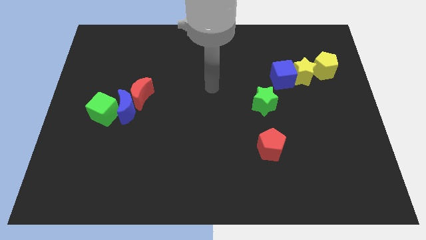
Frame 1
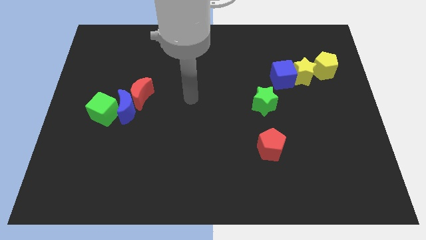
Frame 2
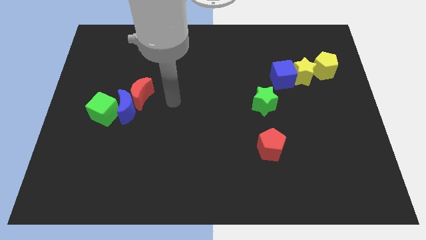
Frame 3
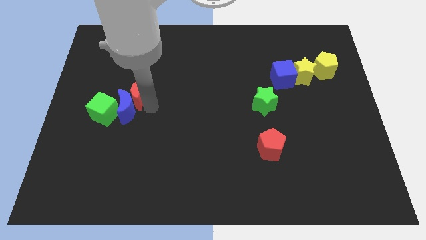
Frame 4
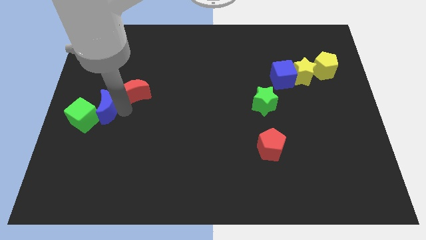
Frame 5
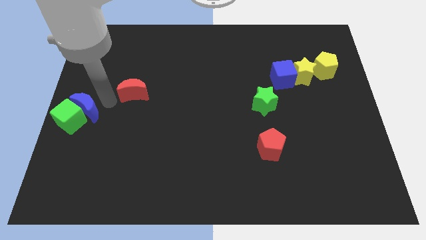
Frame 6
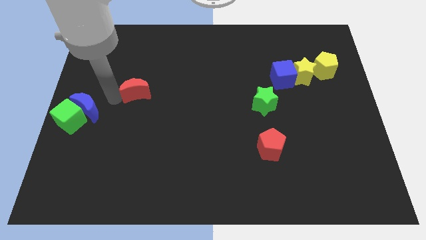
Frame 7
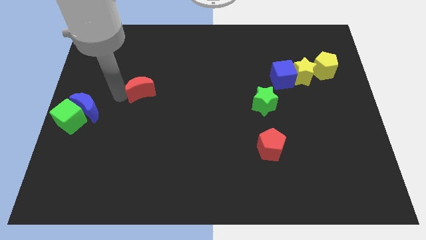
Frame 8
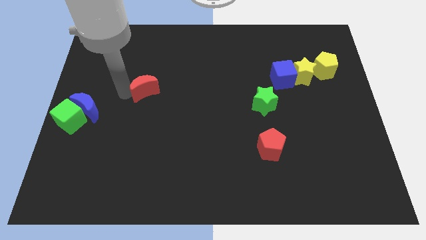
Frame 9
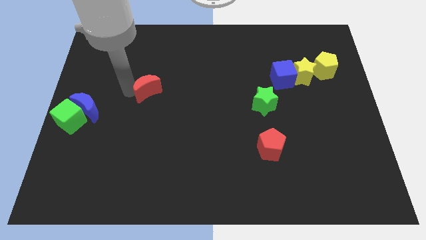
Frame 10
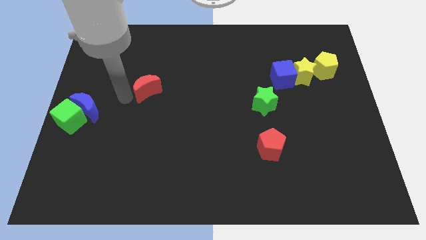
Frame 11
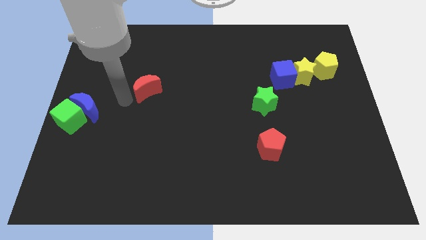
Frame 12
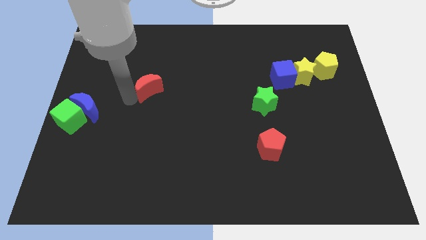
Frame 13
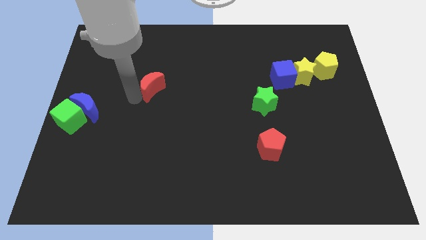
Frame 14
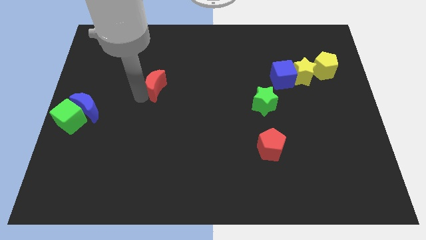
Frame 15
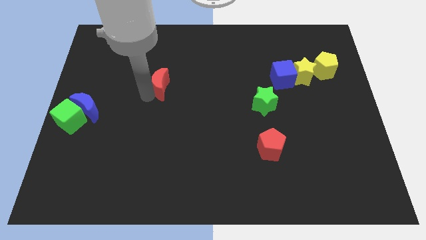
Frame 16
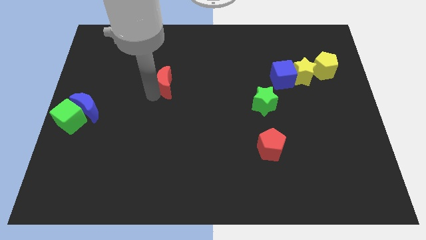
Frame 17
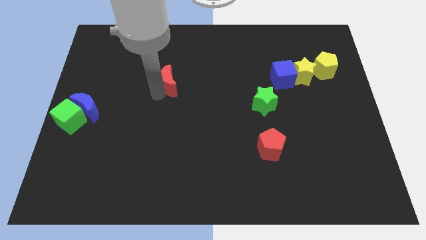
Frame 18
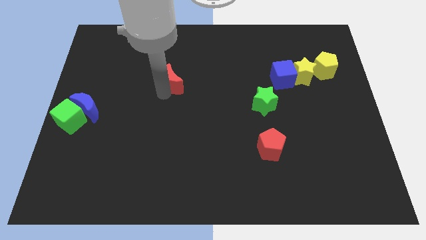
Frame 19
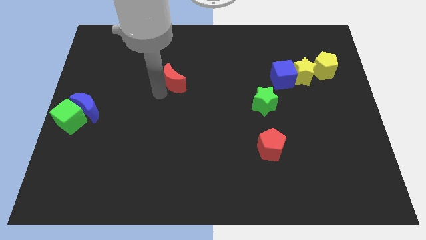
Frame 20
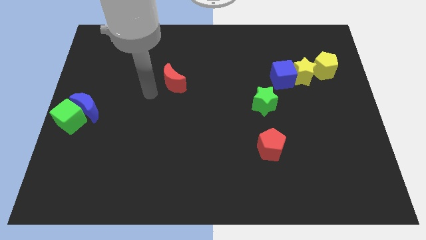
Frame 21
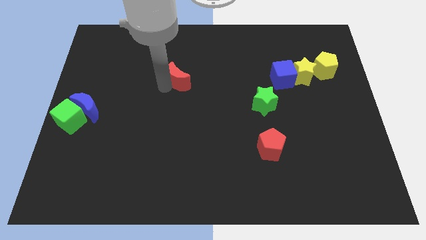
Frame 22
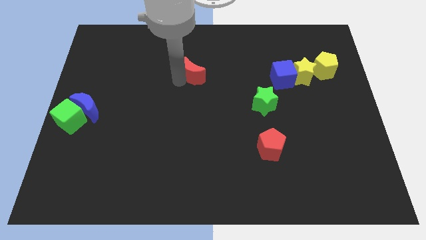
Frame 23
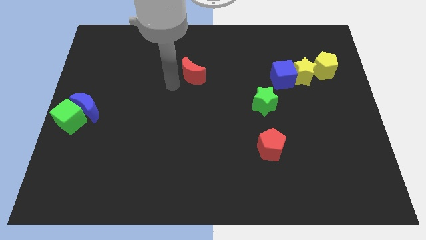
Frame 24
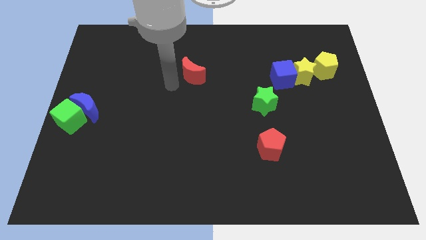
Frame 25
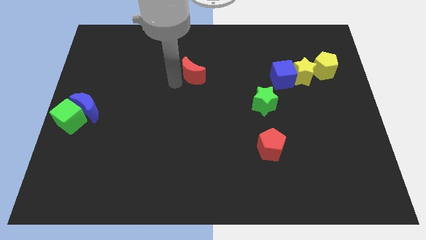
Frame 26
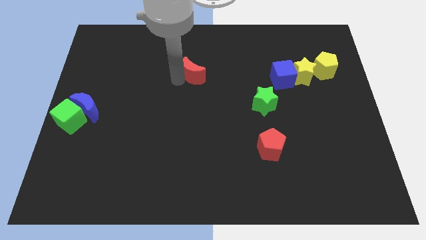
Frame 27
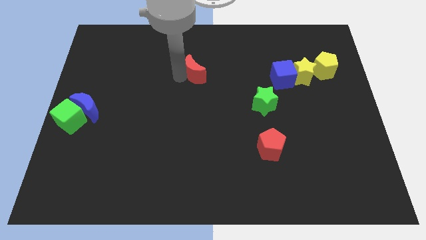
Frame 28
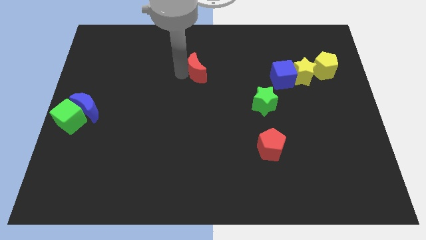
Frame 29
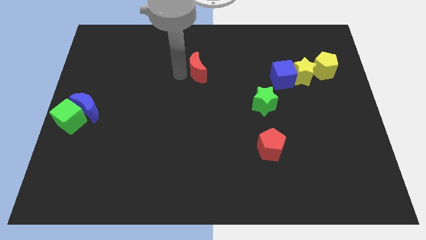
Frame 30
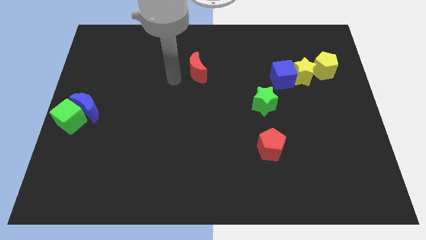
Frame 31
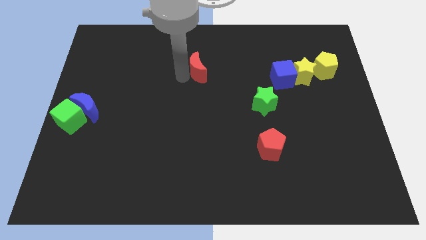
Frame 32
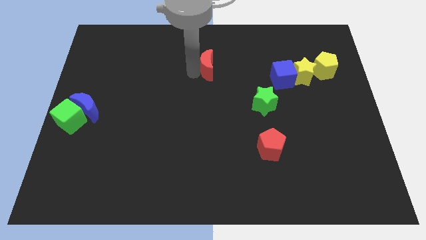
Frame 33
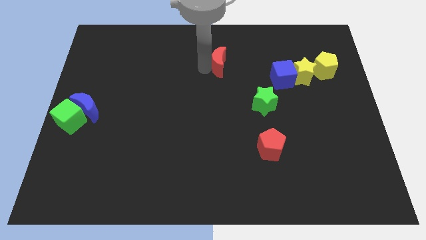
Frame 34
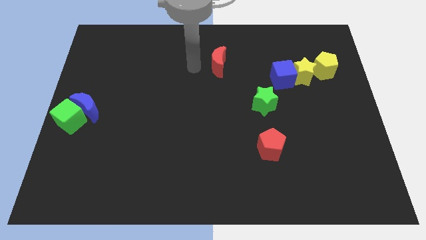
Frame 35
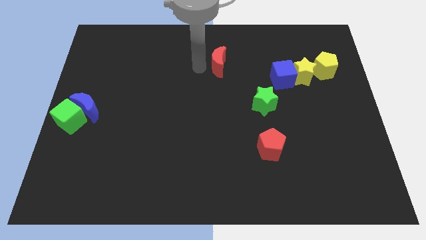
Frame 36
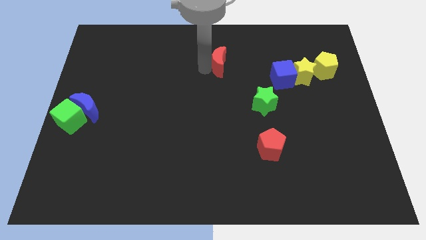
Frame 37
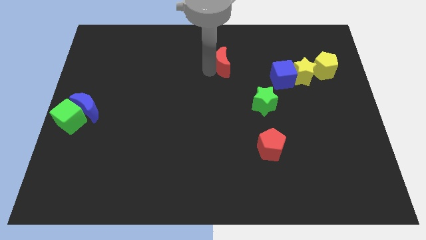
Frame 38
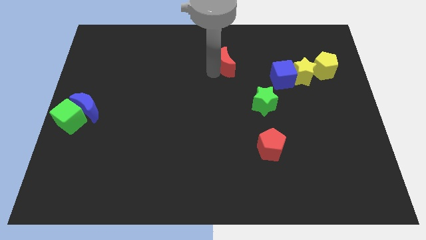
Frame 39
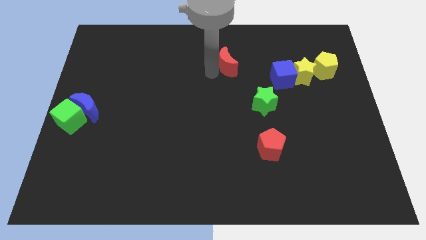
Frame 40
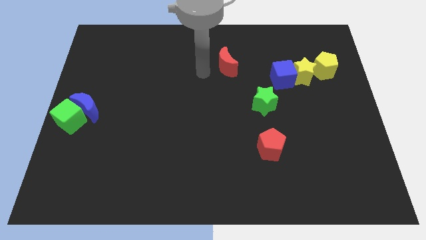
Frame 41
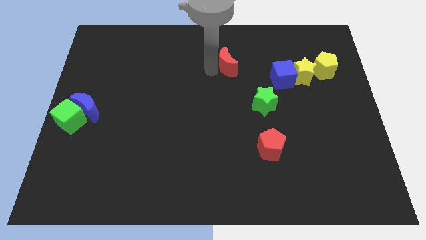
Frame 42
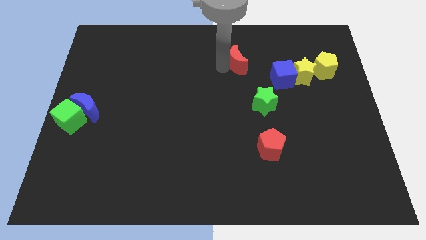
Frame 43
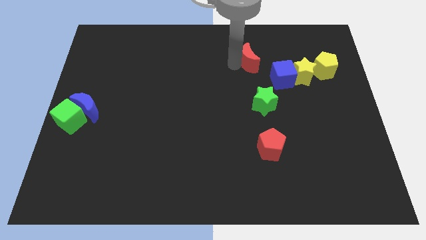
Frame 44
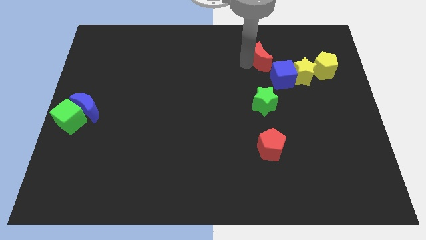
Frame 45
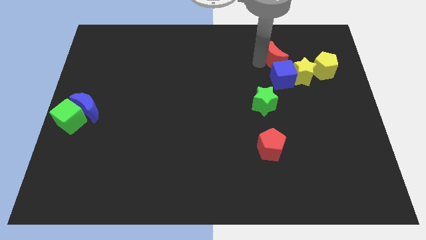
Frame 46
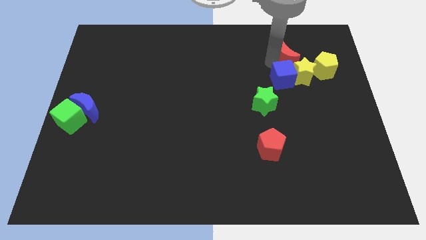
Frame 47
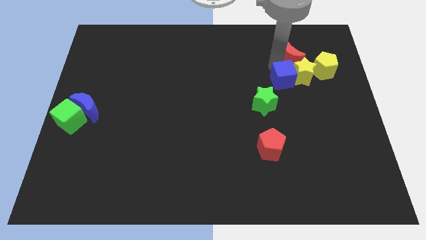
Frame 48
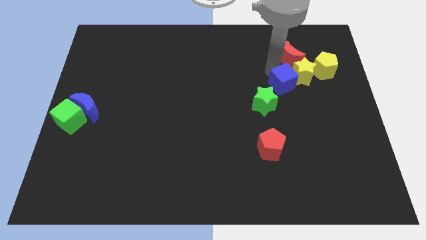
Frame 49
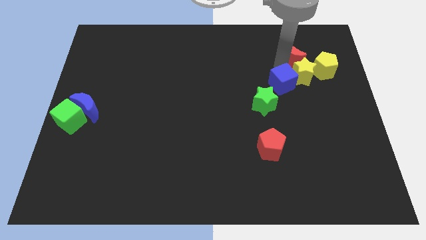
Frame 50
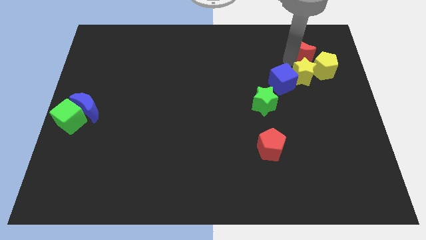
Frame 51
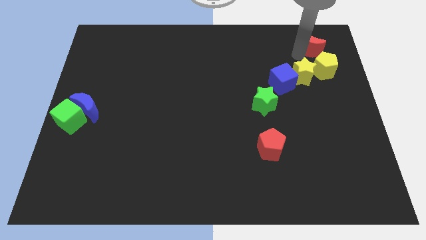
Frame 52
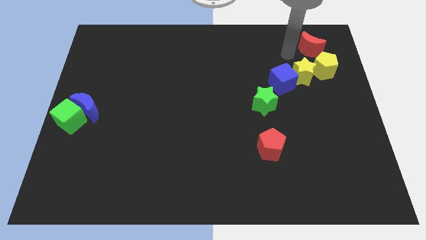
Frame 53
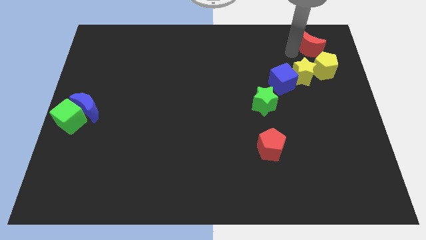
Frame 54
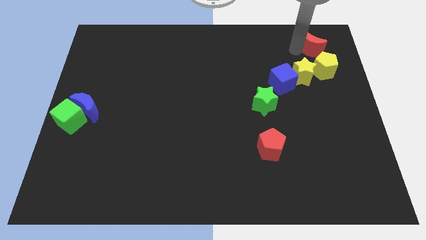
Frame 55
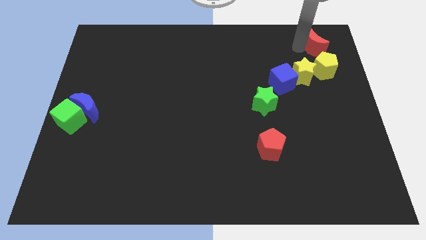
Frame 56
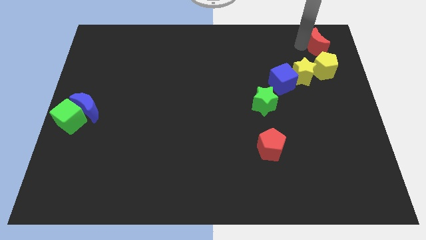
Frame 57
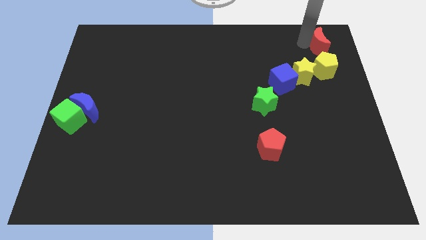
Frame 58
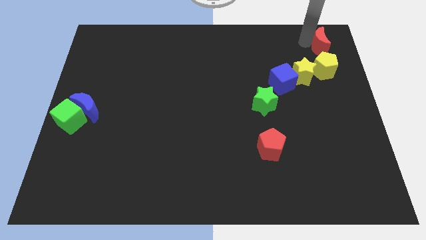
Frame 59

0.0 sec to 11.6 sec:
push the red moon to the top right of the board
